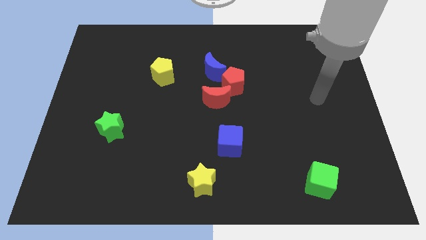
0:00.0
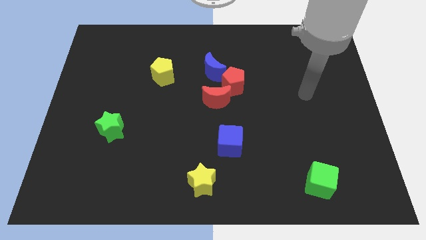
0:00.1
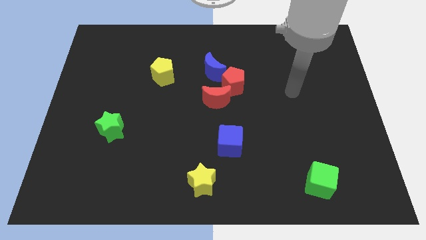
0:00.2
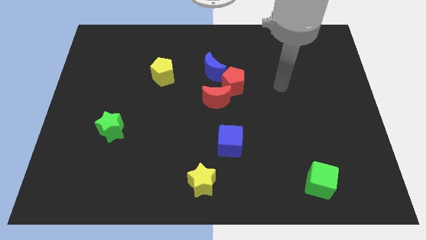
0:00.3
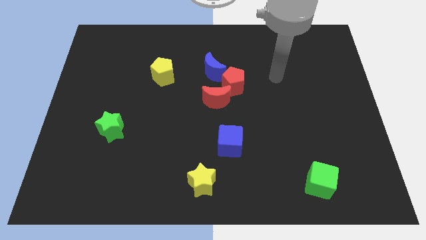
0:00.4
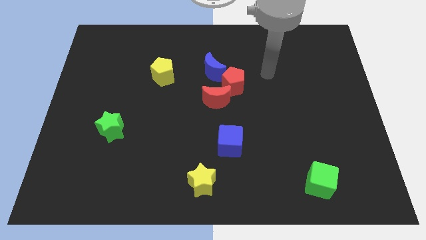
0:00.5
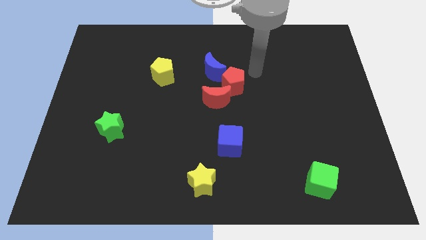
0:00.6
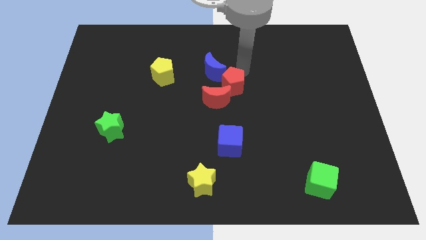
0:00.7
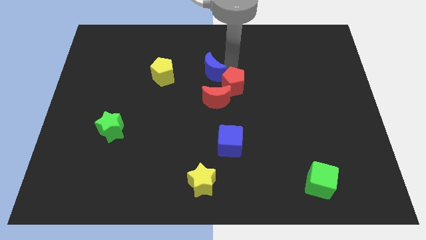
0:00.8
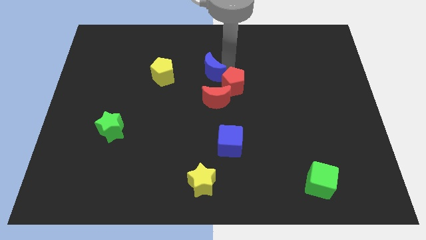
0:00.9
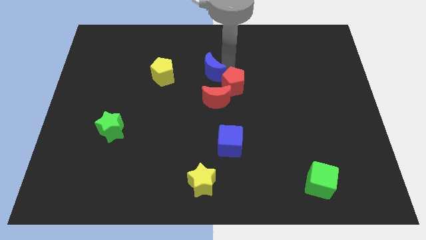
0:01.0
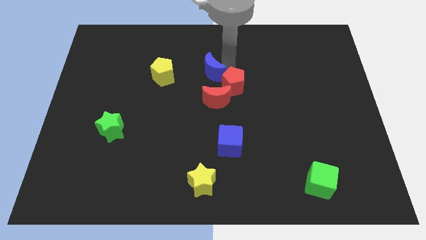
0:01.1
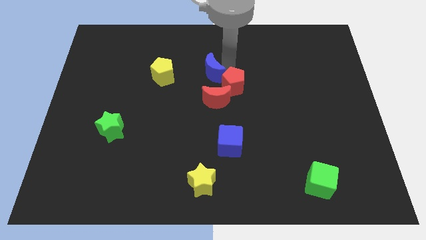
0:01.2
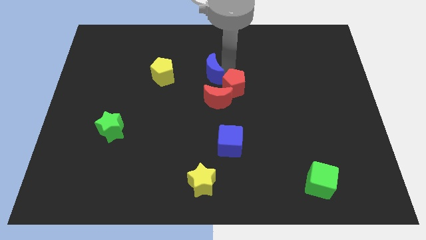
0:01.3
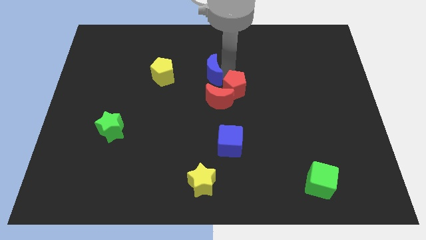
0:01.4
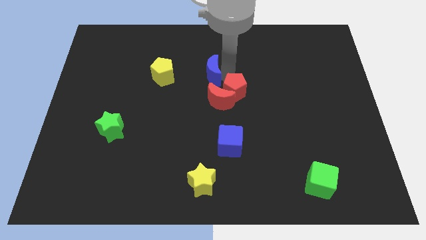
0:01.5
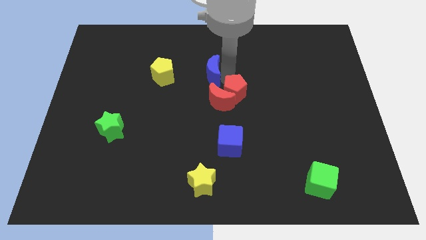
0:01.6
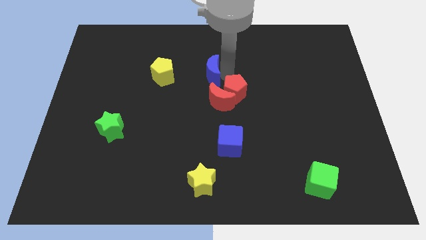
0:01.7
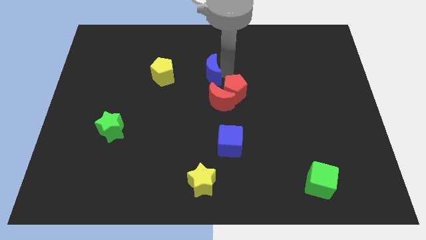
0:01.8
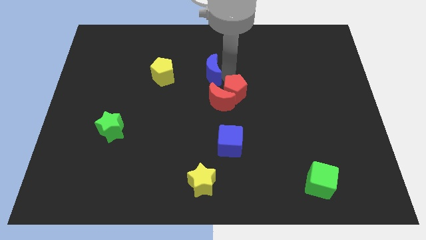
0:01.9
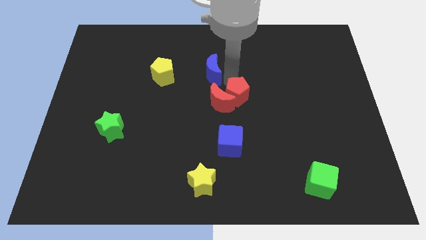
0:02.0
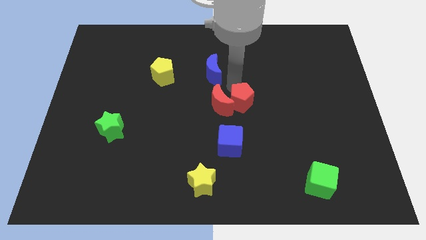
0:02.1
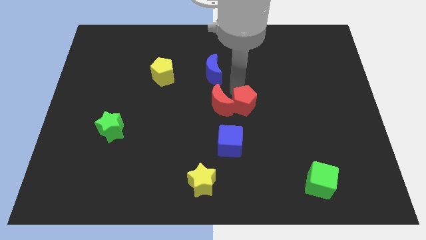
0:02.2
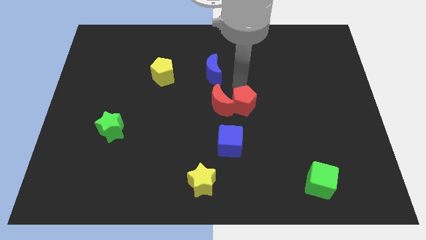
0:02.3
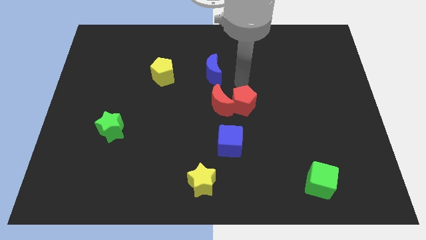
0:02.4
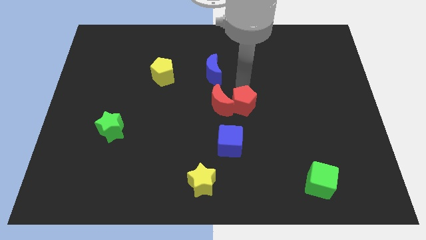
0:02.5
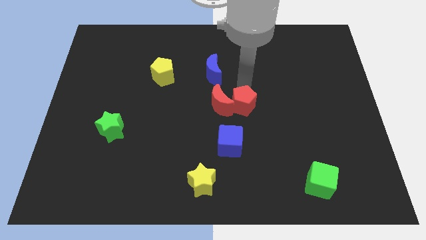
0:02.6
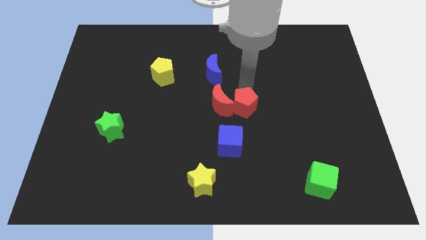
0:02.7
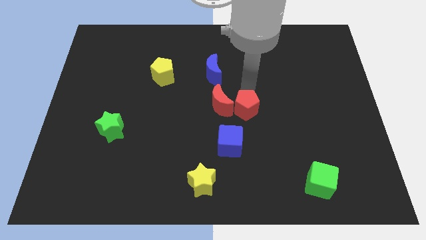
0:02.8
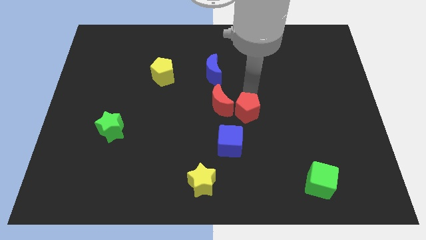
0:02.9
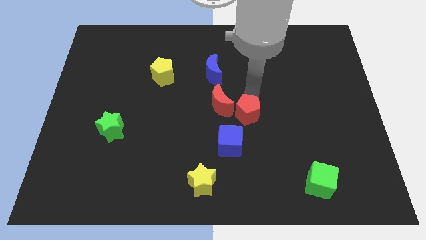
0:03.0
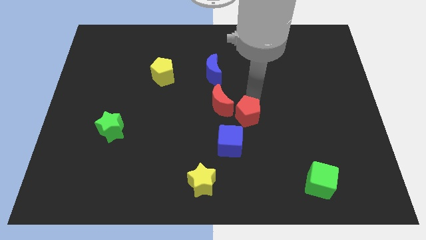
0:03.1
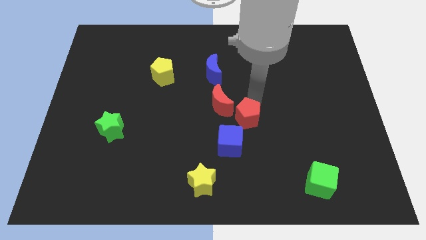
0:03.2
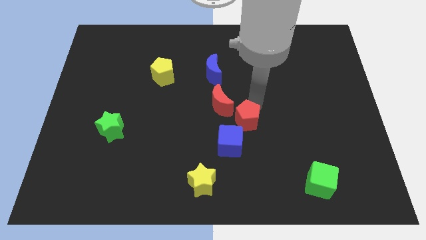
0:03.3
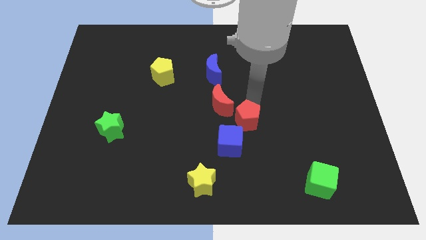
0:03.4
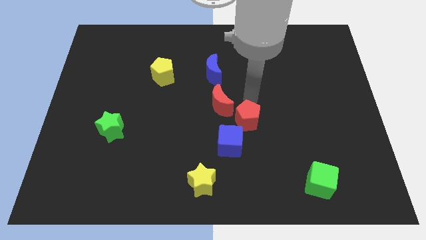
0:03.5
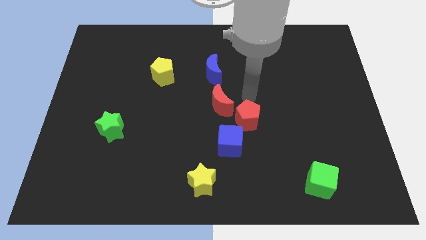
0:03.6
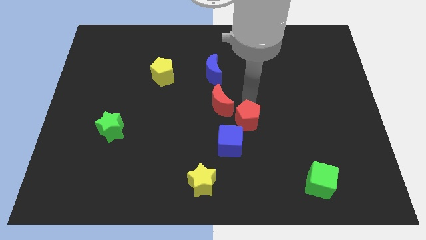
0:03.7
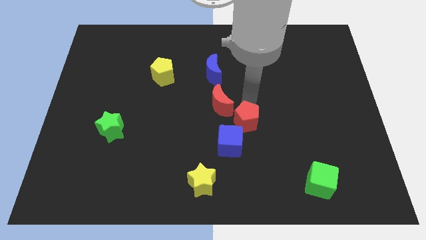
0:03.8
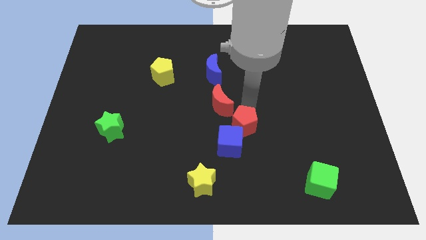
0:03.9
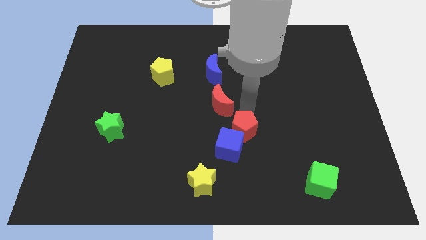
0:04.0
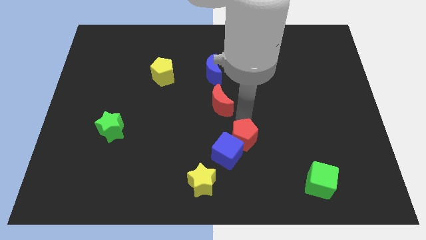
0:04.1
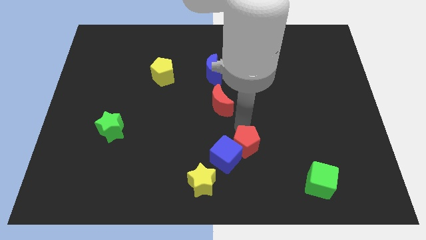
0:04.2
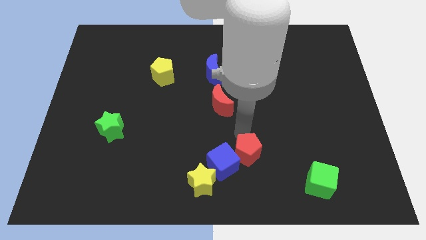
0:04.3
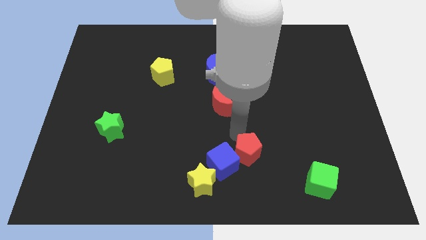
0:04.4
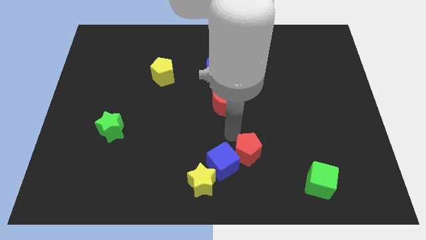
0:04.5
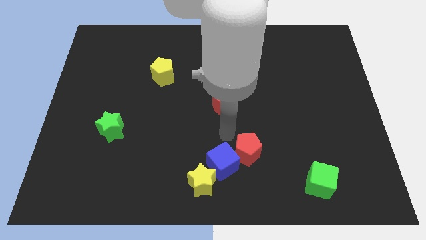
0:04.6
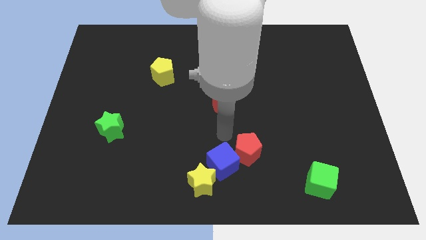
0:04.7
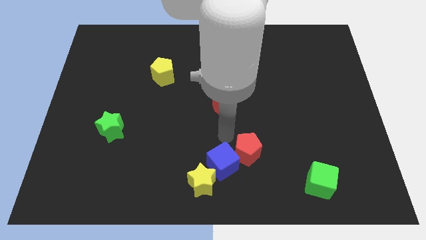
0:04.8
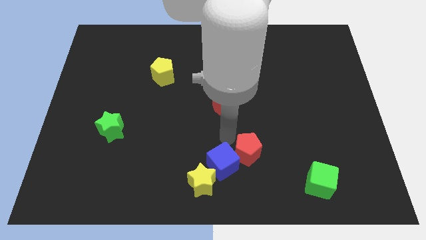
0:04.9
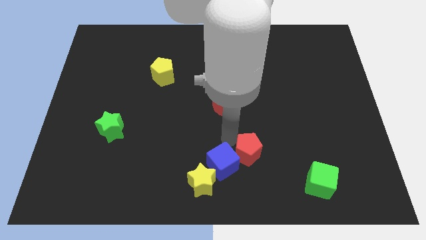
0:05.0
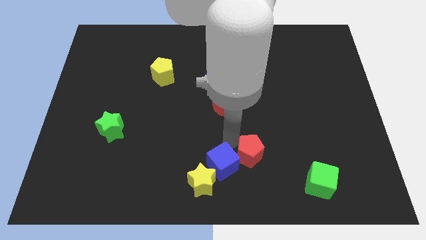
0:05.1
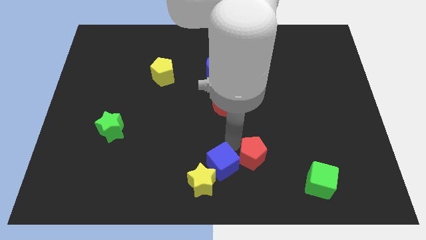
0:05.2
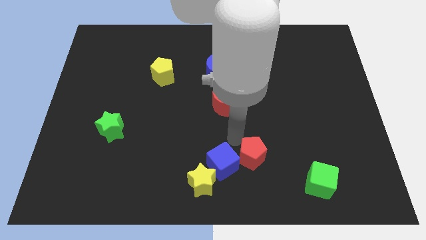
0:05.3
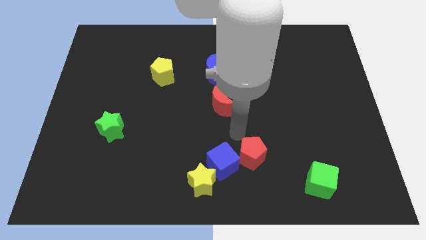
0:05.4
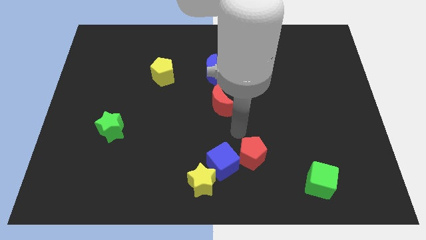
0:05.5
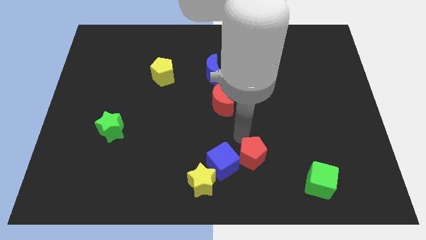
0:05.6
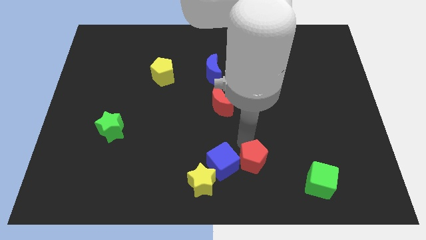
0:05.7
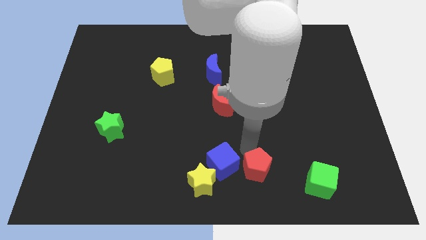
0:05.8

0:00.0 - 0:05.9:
move the red pentagon left of the green cube

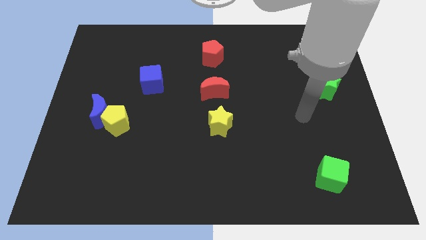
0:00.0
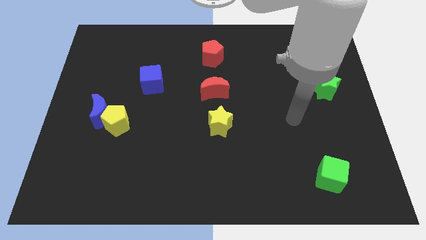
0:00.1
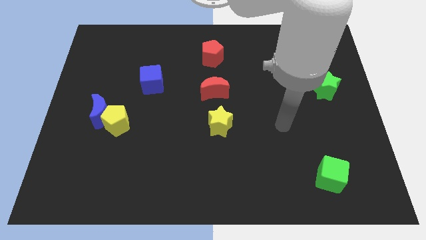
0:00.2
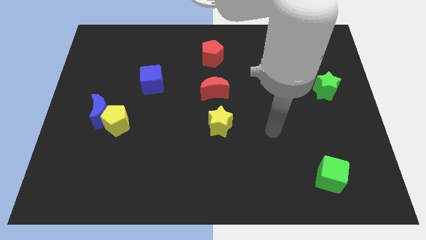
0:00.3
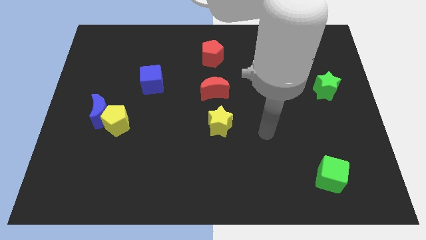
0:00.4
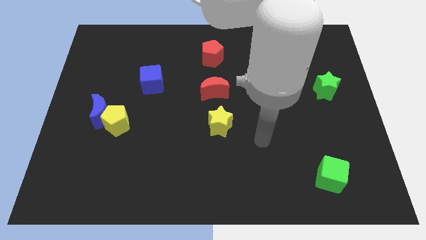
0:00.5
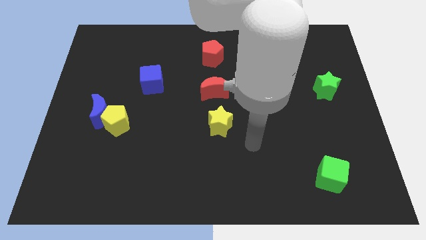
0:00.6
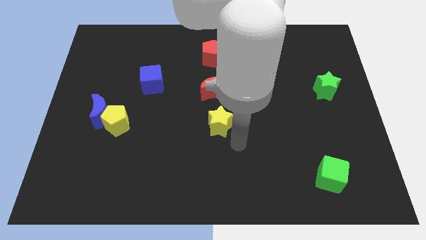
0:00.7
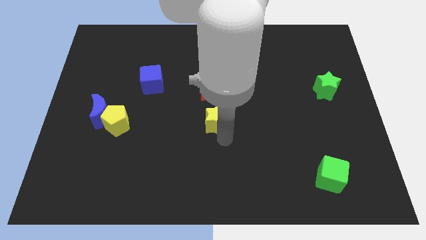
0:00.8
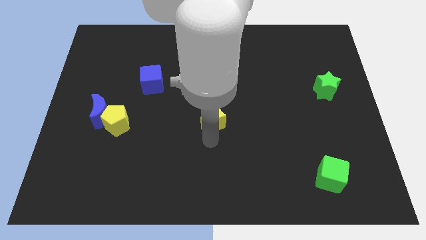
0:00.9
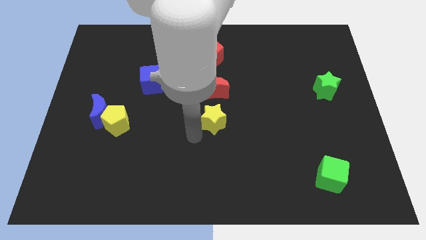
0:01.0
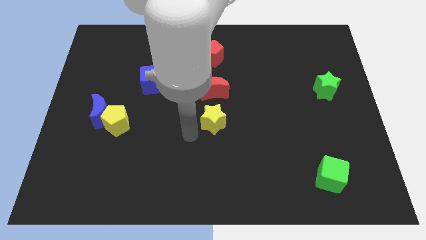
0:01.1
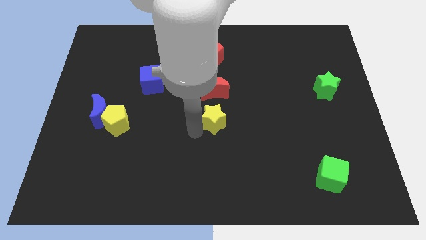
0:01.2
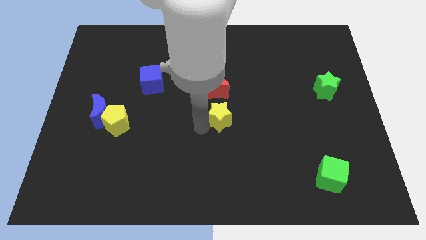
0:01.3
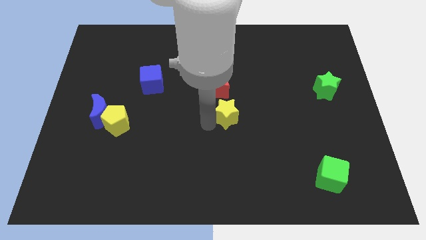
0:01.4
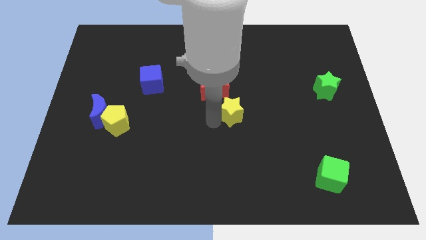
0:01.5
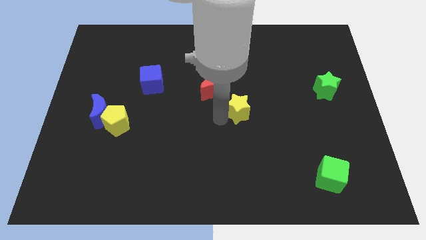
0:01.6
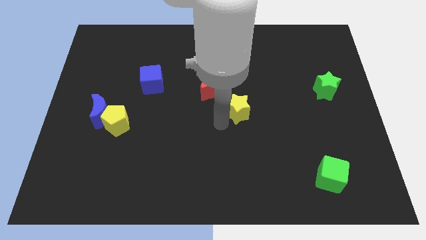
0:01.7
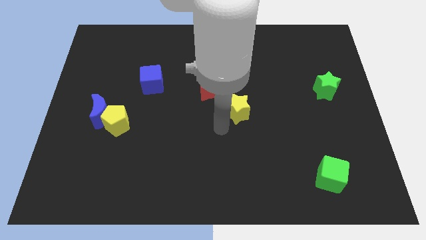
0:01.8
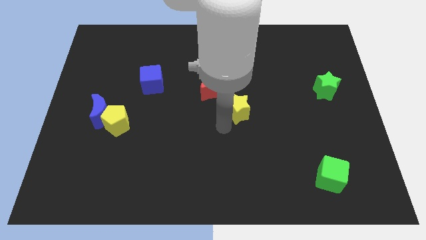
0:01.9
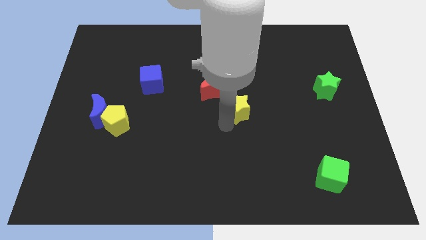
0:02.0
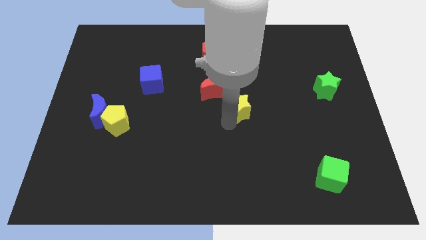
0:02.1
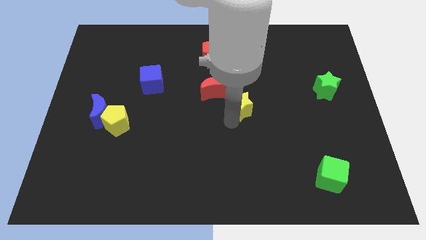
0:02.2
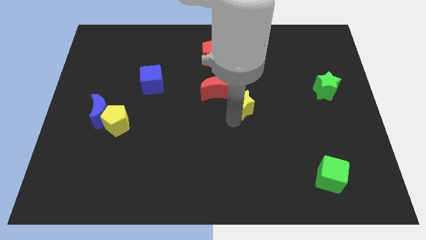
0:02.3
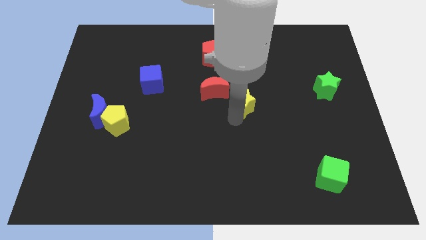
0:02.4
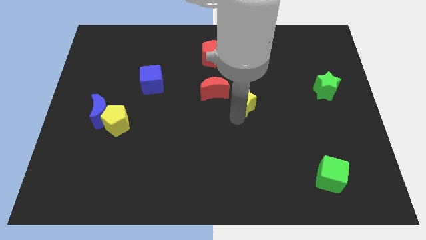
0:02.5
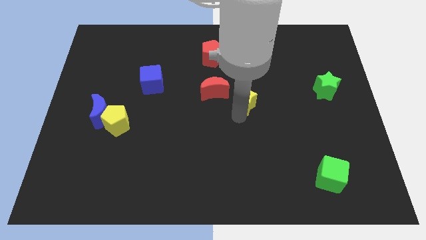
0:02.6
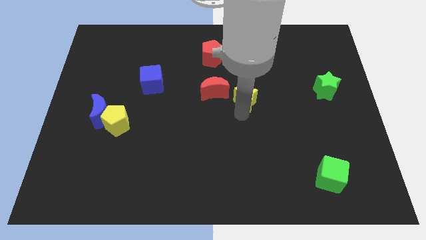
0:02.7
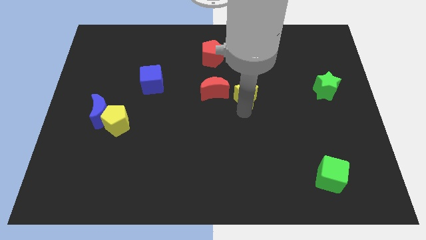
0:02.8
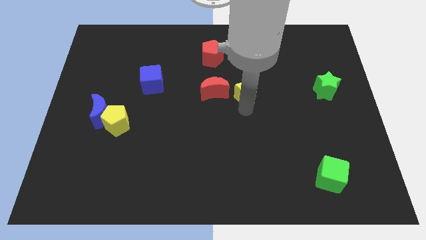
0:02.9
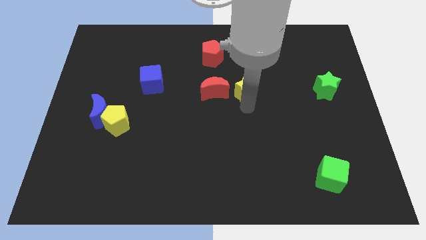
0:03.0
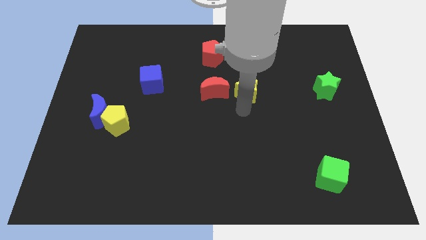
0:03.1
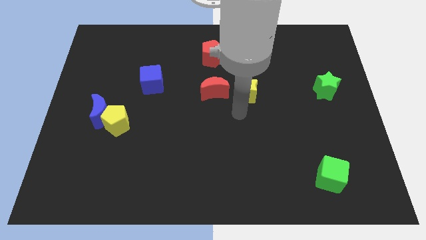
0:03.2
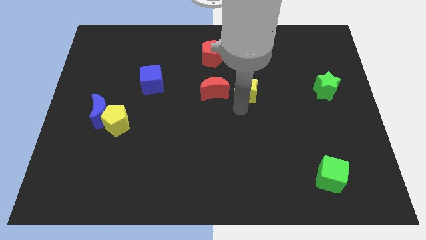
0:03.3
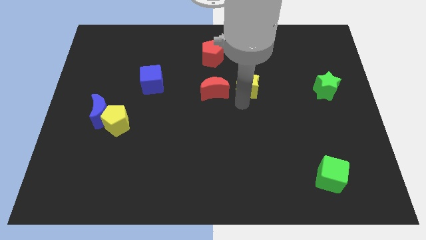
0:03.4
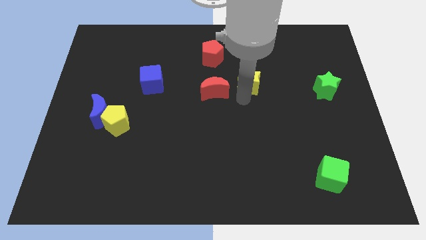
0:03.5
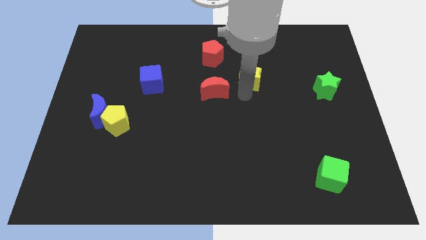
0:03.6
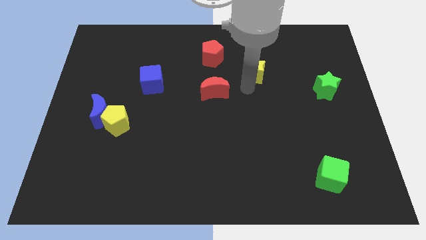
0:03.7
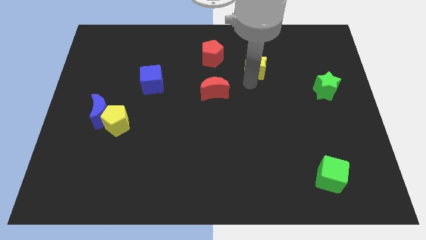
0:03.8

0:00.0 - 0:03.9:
move the yellow star just right of the red pentagon
